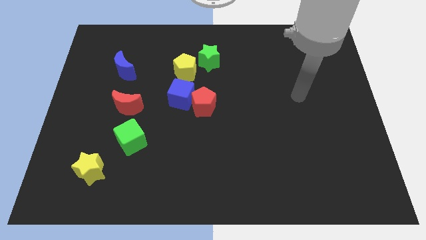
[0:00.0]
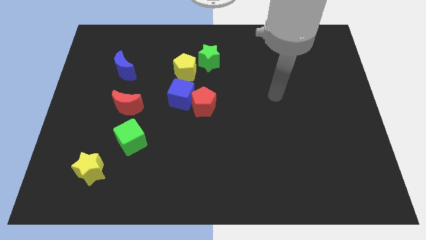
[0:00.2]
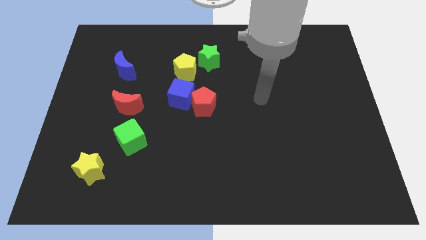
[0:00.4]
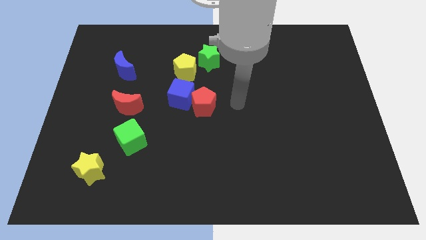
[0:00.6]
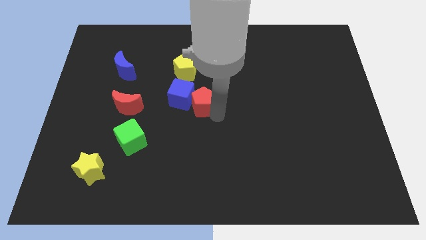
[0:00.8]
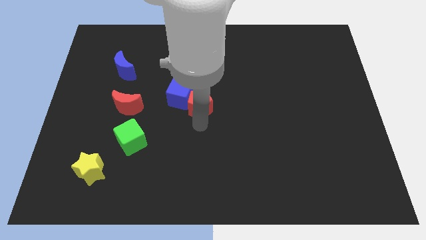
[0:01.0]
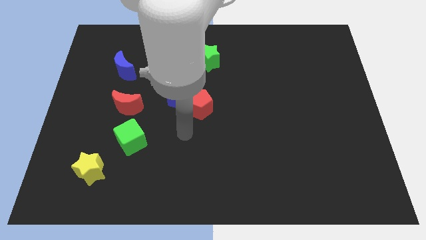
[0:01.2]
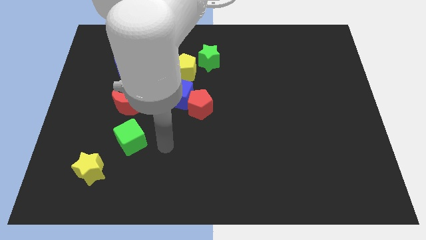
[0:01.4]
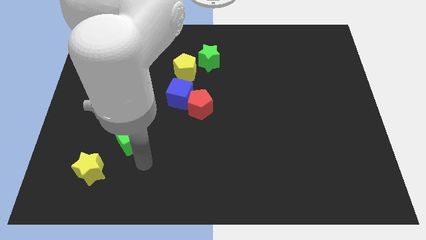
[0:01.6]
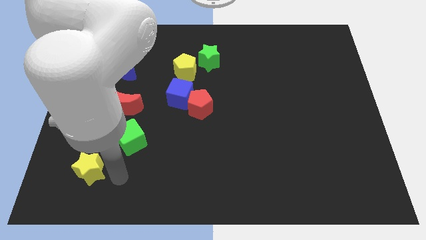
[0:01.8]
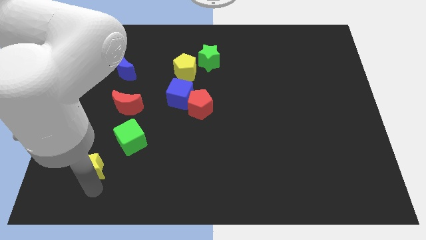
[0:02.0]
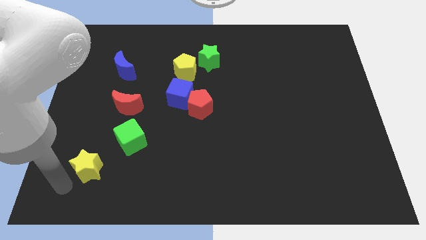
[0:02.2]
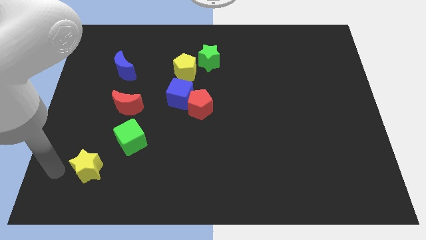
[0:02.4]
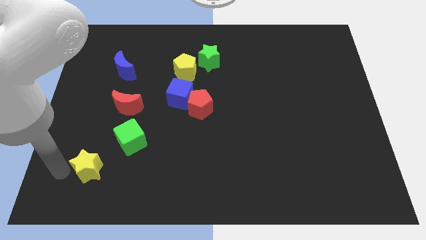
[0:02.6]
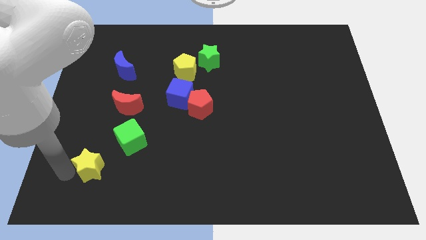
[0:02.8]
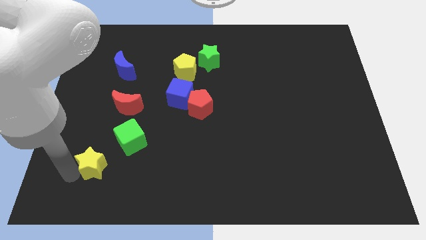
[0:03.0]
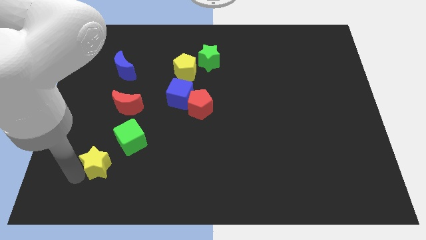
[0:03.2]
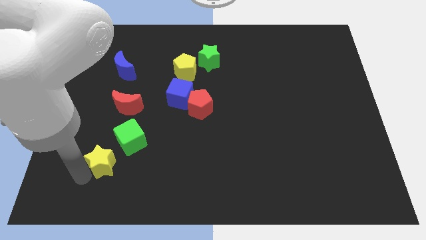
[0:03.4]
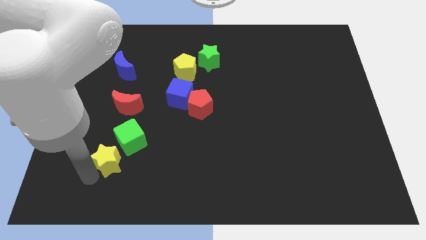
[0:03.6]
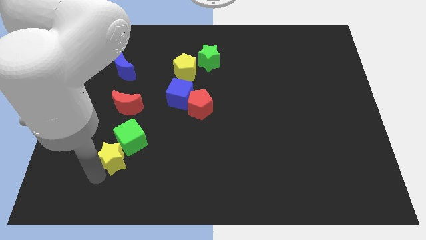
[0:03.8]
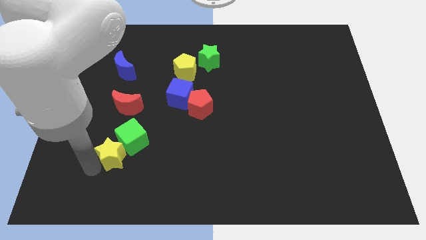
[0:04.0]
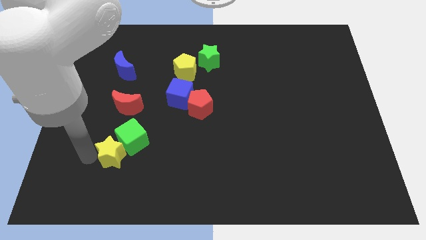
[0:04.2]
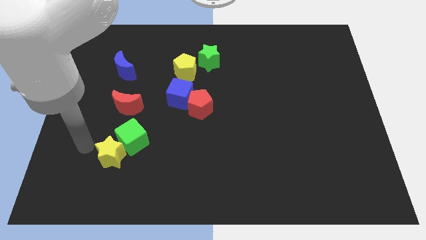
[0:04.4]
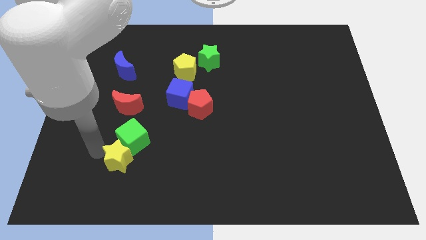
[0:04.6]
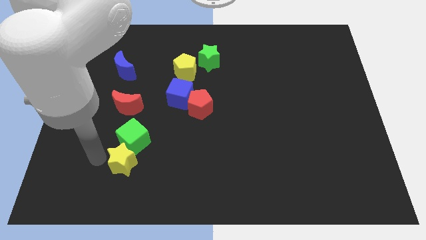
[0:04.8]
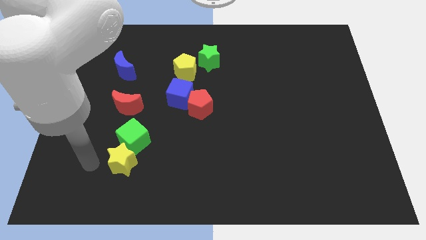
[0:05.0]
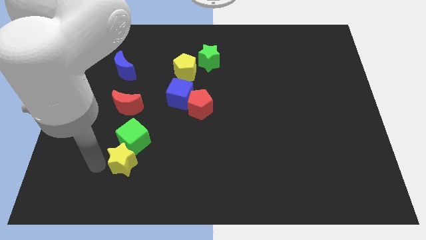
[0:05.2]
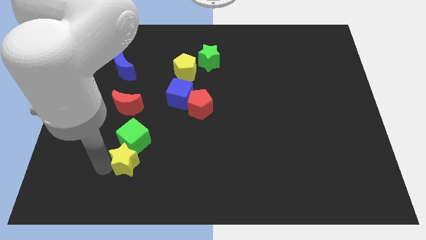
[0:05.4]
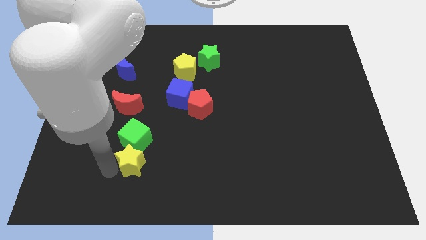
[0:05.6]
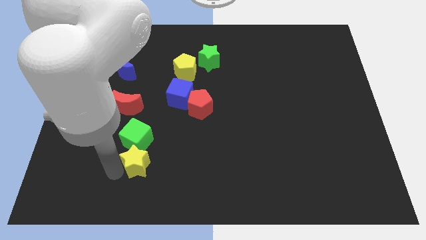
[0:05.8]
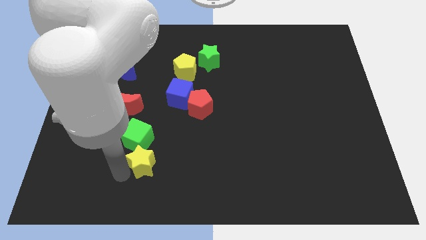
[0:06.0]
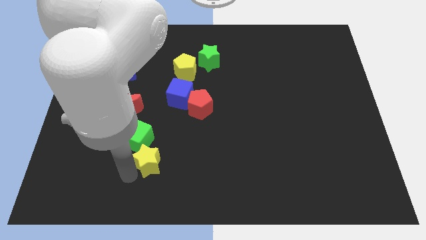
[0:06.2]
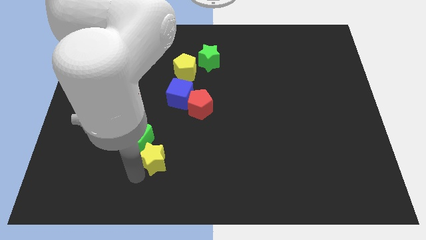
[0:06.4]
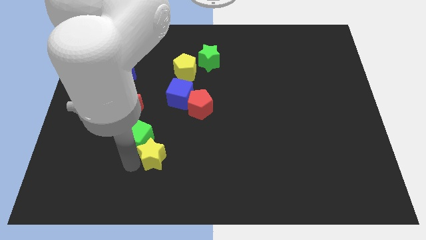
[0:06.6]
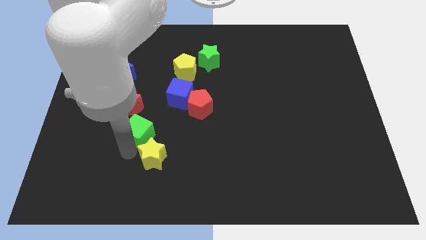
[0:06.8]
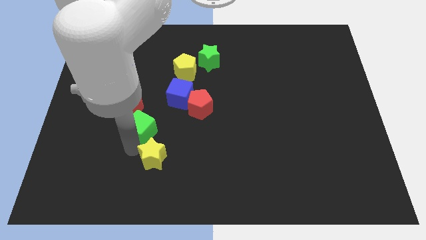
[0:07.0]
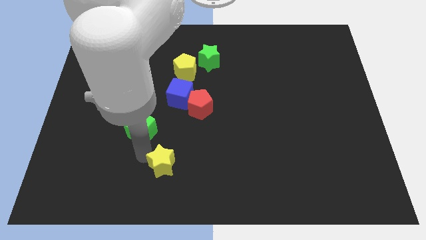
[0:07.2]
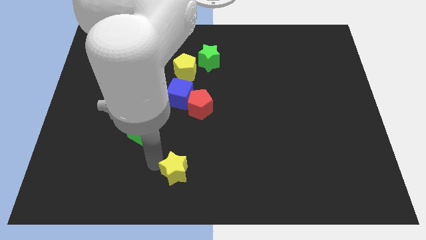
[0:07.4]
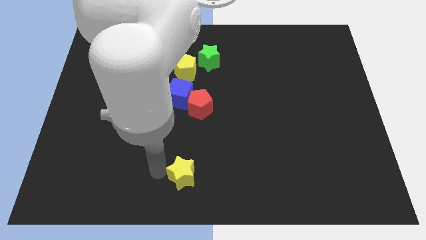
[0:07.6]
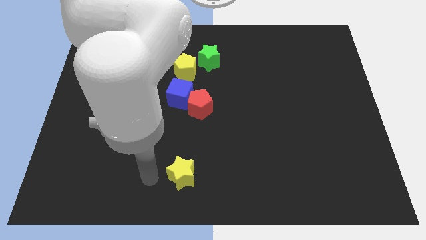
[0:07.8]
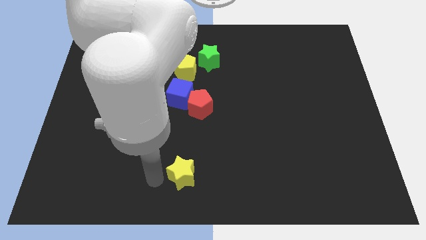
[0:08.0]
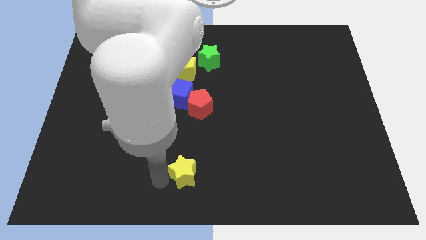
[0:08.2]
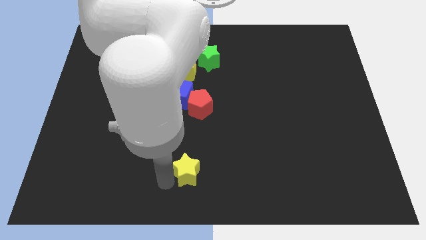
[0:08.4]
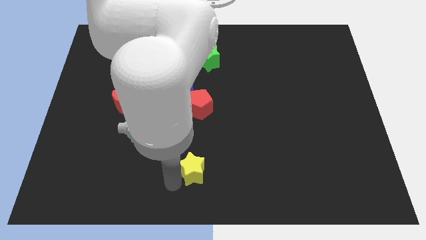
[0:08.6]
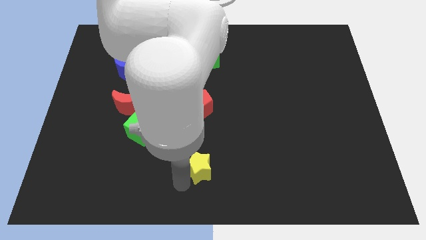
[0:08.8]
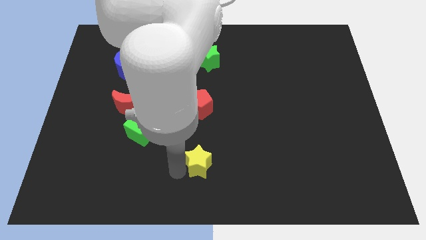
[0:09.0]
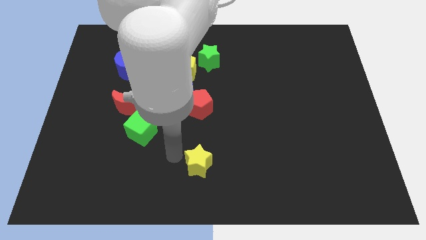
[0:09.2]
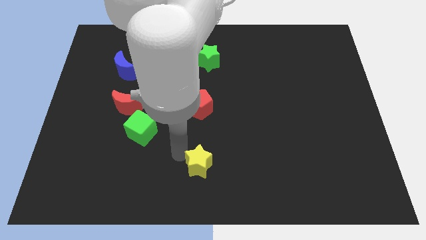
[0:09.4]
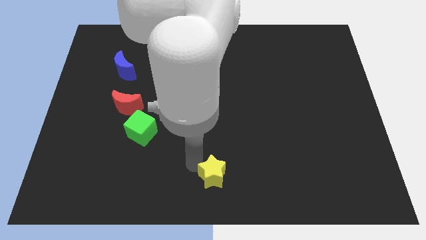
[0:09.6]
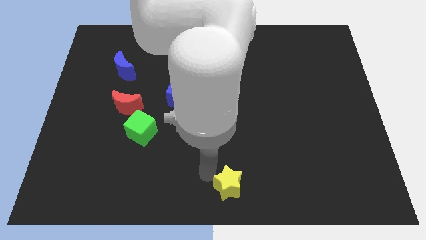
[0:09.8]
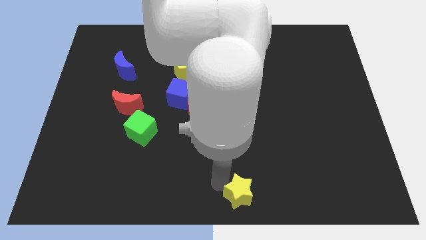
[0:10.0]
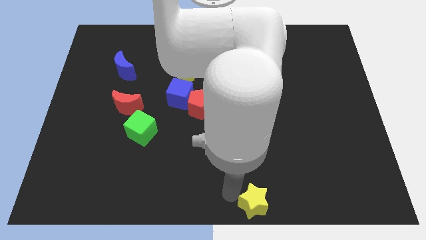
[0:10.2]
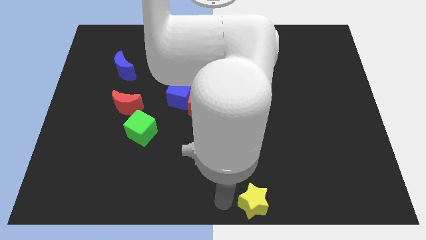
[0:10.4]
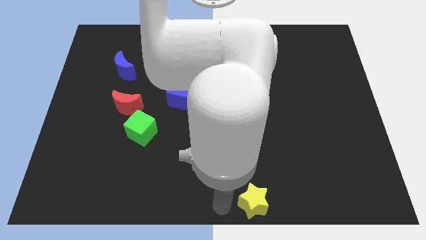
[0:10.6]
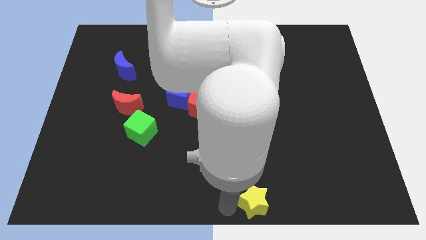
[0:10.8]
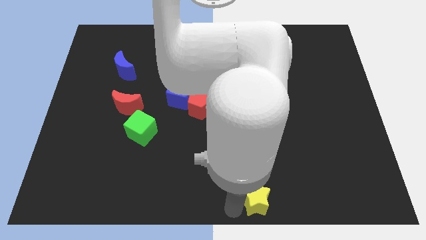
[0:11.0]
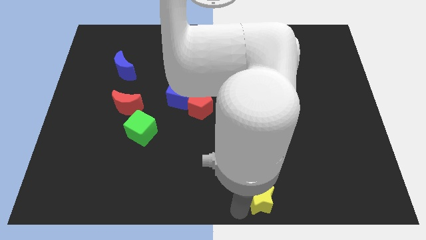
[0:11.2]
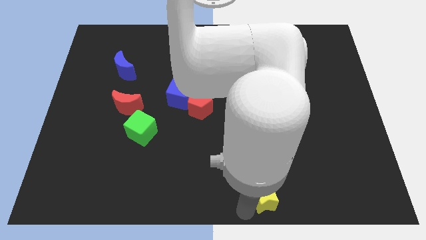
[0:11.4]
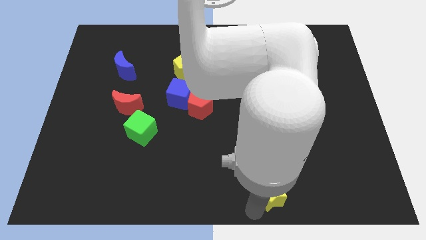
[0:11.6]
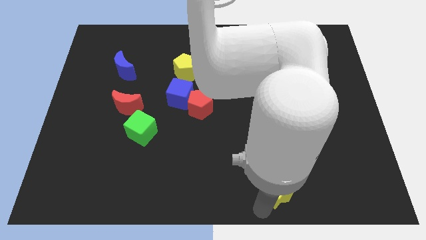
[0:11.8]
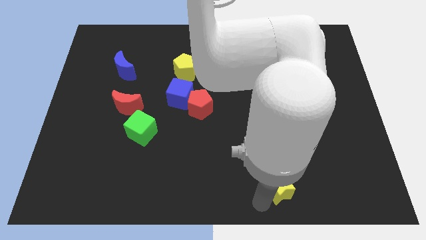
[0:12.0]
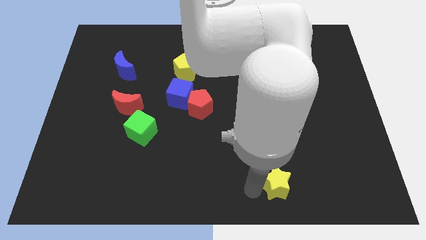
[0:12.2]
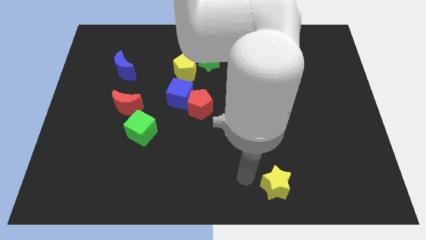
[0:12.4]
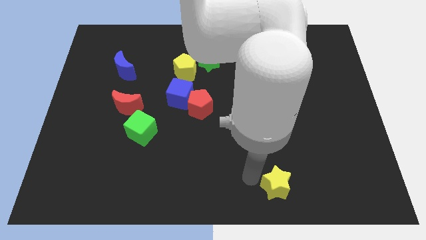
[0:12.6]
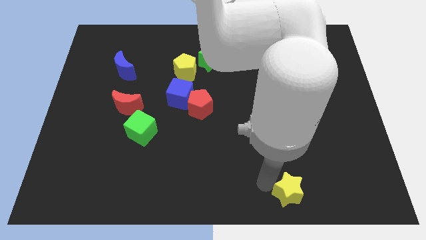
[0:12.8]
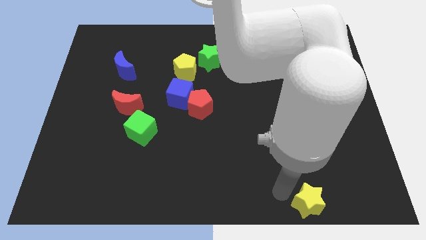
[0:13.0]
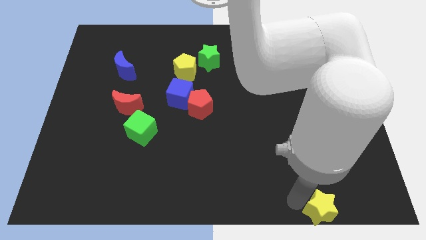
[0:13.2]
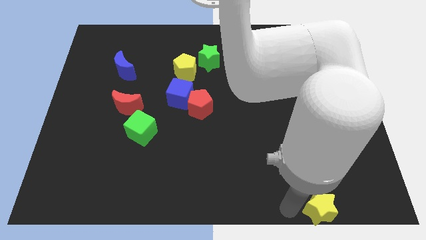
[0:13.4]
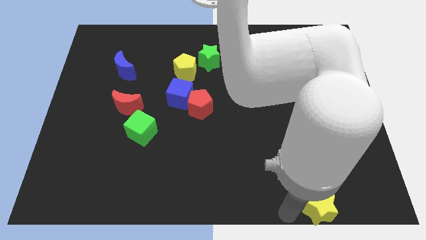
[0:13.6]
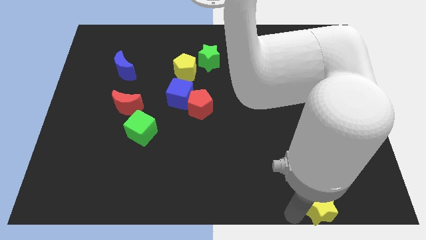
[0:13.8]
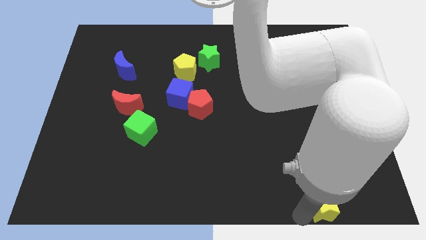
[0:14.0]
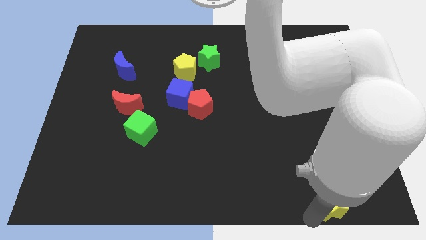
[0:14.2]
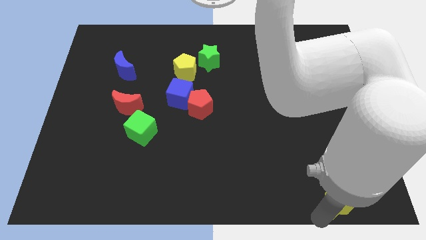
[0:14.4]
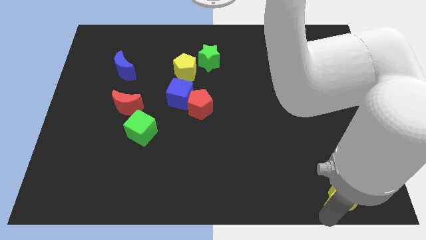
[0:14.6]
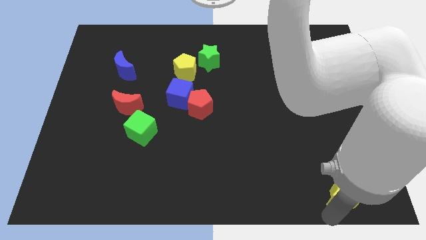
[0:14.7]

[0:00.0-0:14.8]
push the yellow star to the bottom right corner
